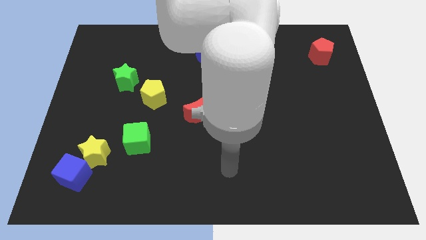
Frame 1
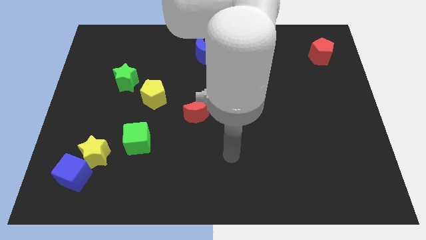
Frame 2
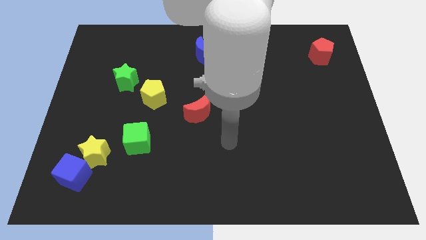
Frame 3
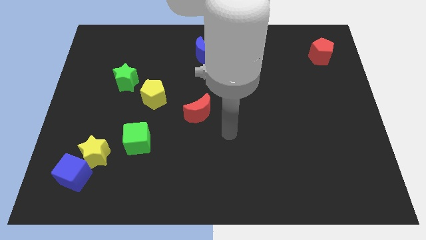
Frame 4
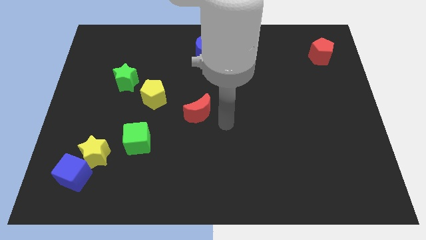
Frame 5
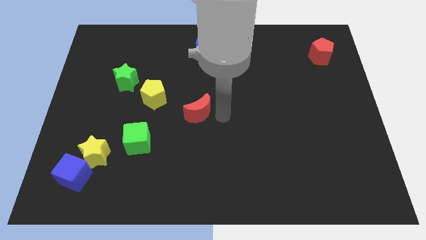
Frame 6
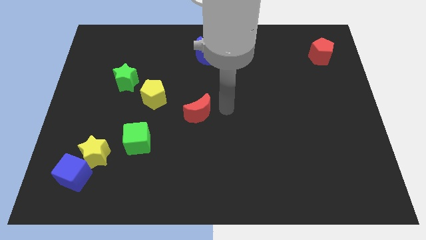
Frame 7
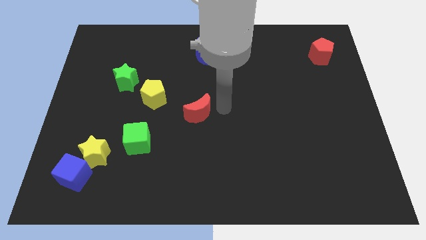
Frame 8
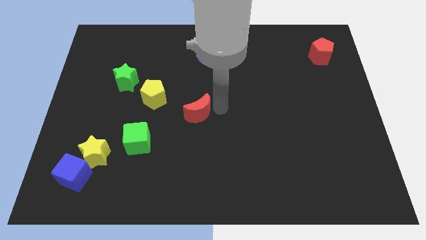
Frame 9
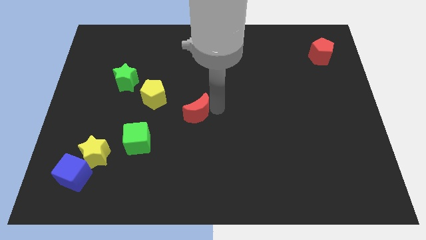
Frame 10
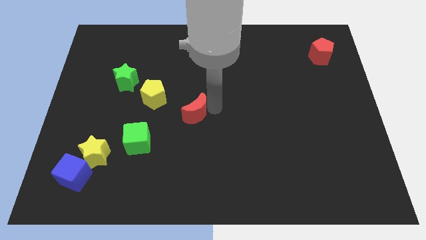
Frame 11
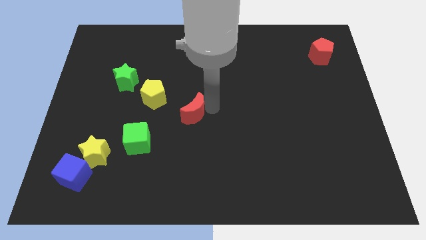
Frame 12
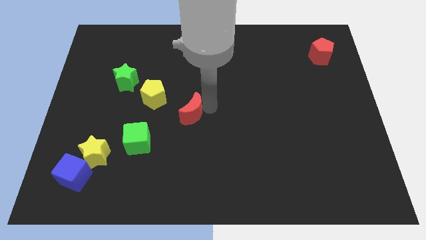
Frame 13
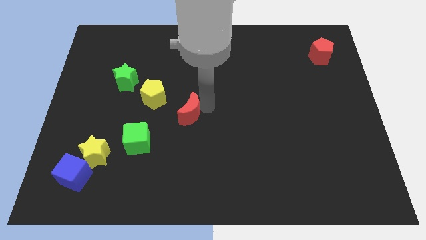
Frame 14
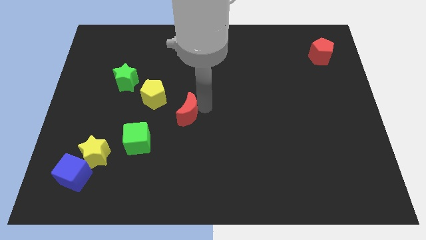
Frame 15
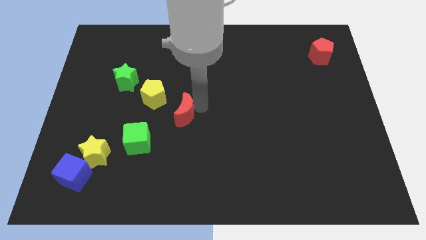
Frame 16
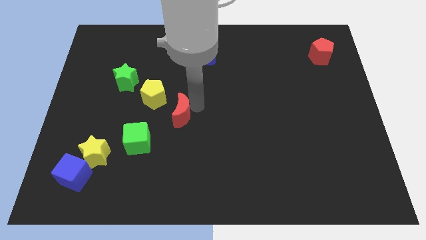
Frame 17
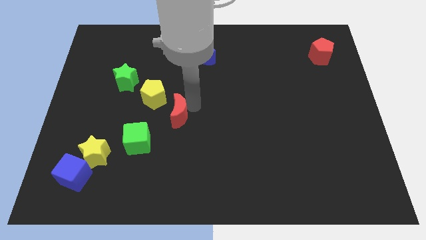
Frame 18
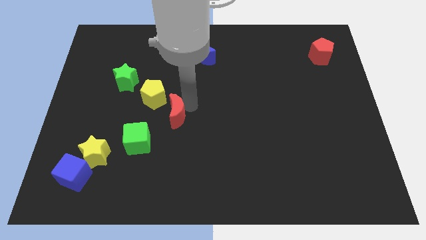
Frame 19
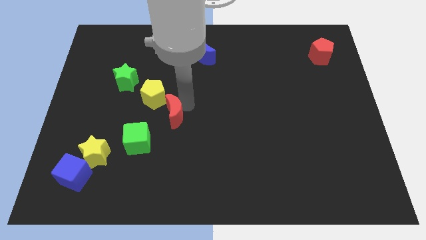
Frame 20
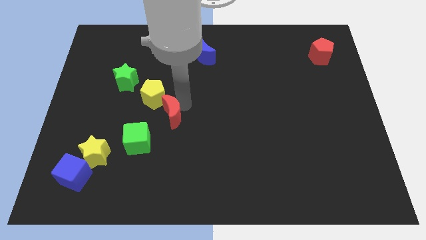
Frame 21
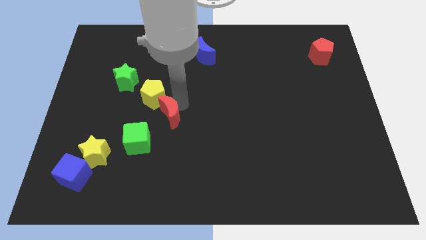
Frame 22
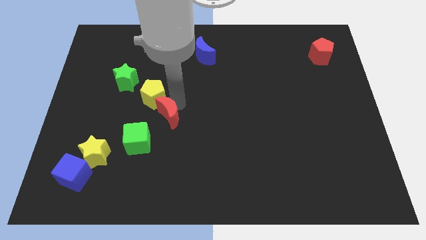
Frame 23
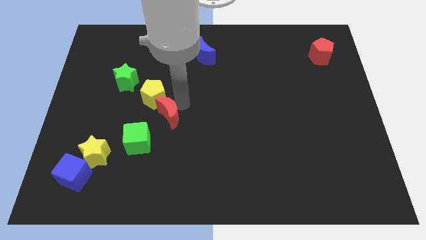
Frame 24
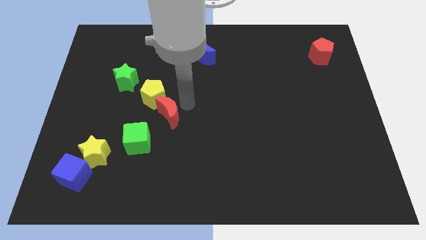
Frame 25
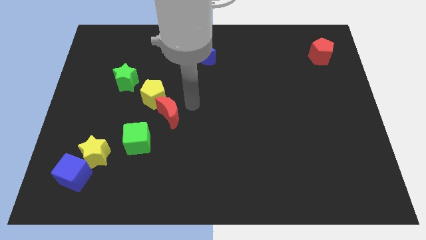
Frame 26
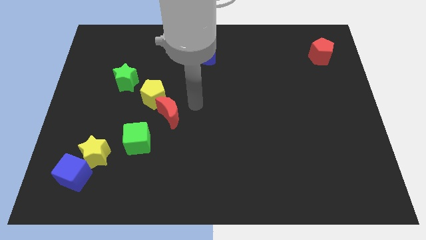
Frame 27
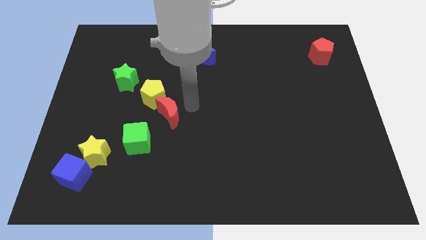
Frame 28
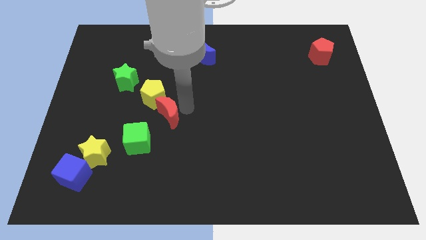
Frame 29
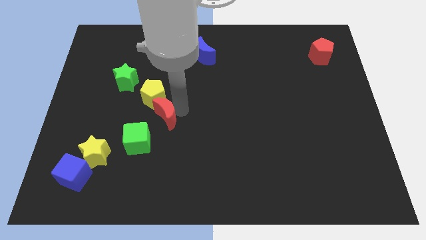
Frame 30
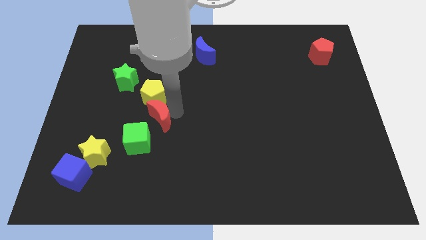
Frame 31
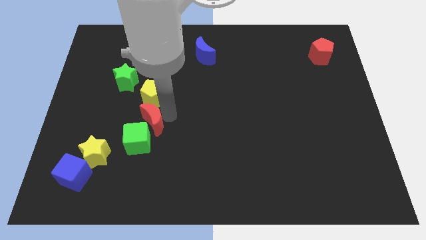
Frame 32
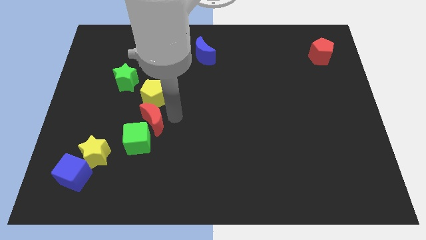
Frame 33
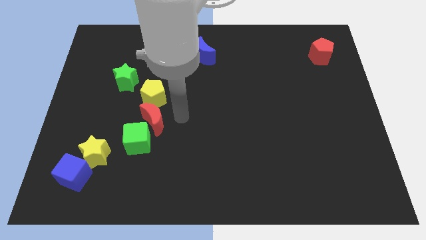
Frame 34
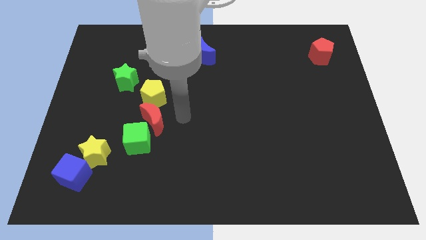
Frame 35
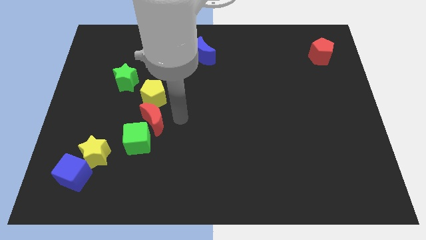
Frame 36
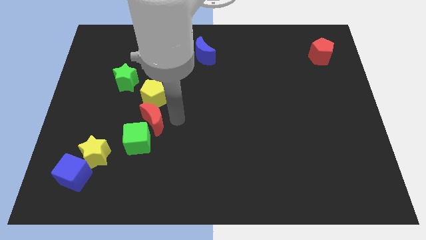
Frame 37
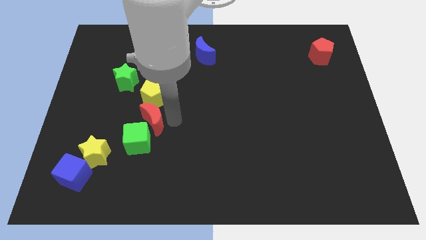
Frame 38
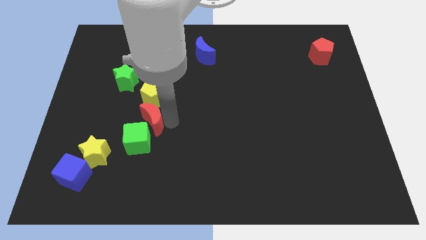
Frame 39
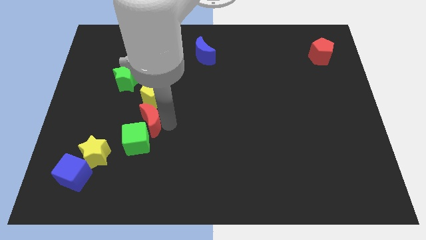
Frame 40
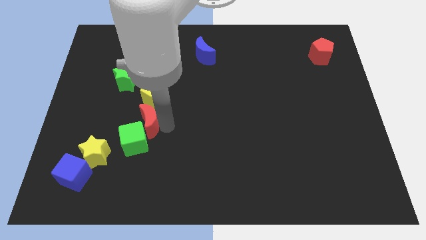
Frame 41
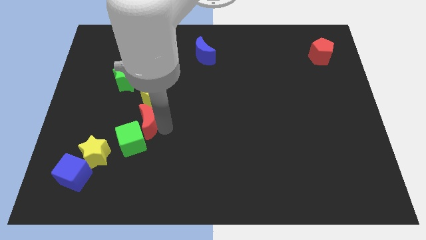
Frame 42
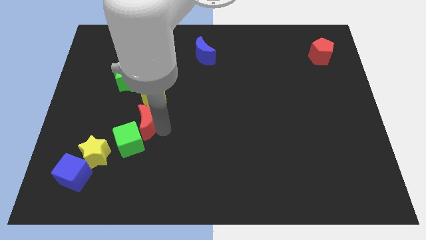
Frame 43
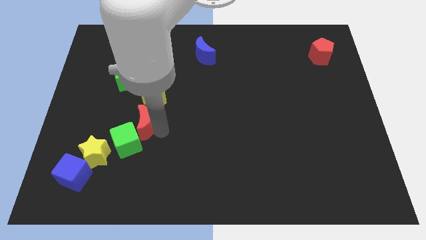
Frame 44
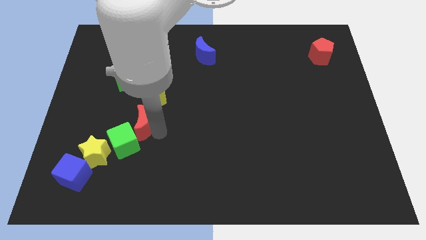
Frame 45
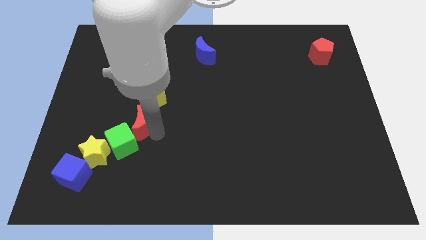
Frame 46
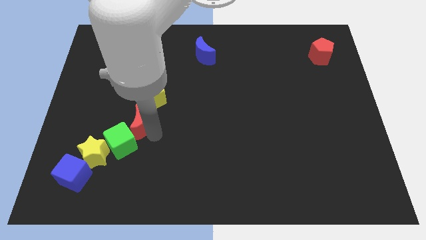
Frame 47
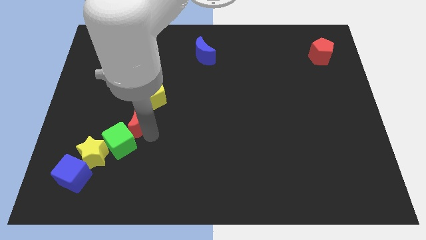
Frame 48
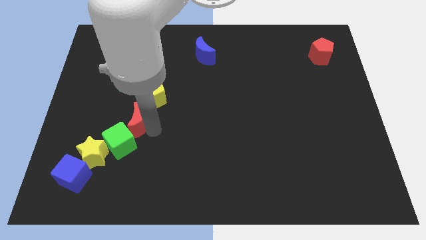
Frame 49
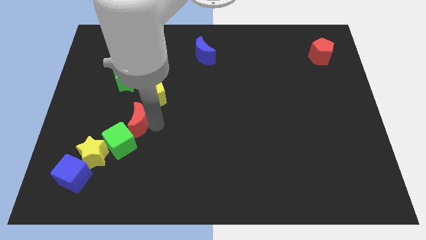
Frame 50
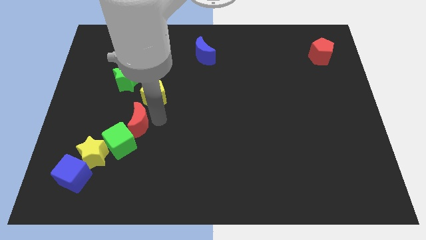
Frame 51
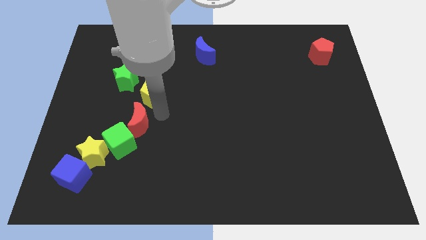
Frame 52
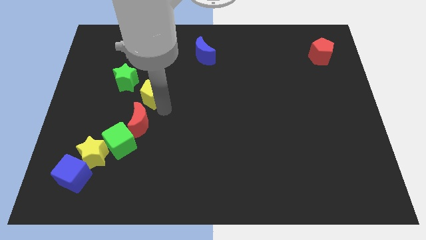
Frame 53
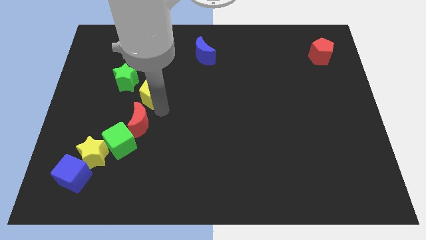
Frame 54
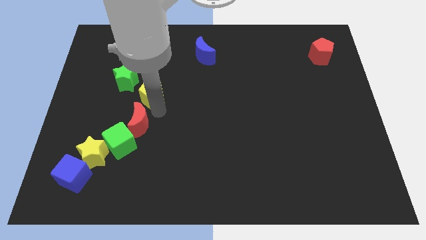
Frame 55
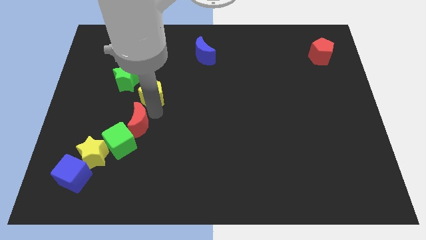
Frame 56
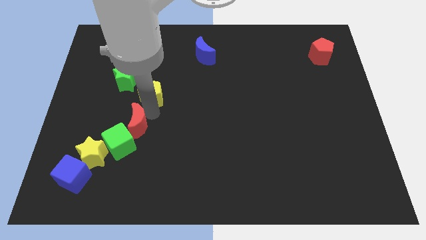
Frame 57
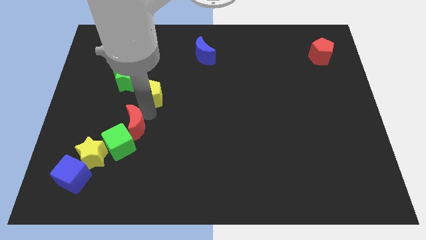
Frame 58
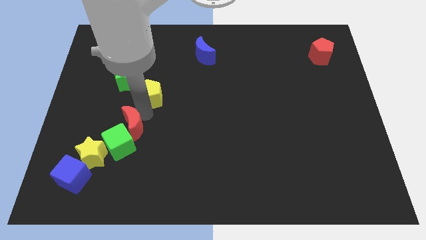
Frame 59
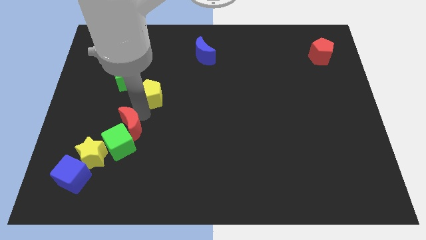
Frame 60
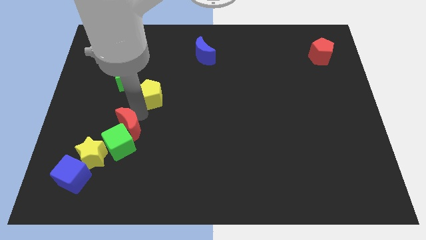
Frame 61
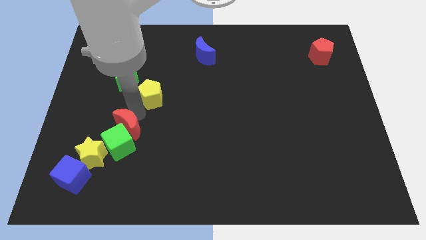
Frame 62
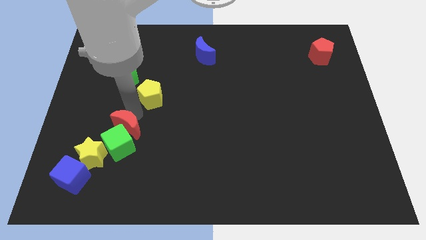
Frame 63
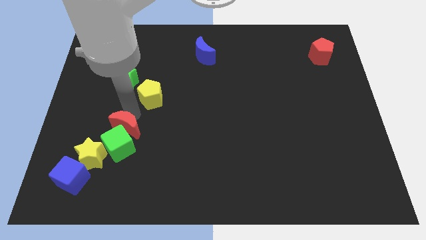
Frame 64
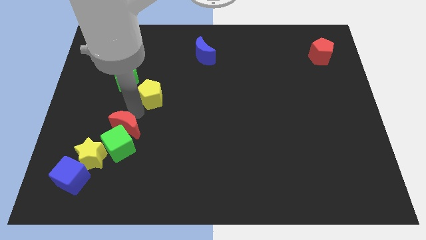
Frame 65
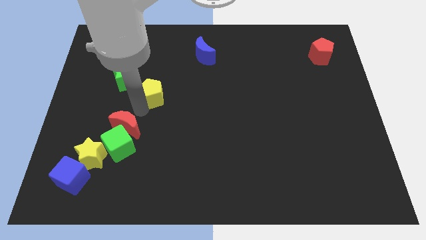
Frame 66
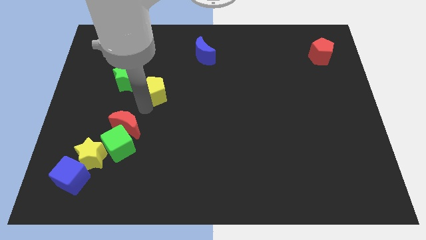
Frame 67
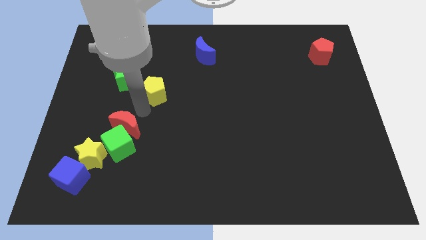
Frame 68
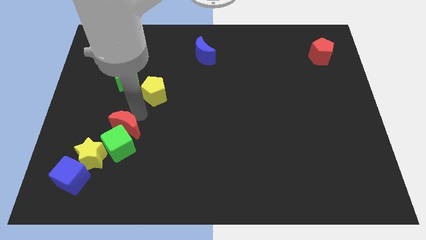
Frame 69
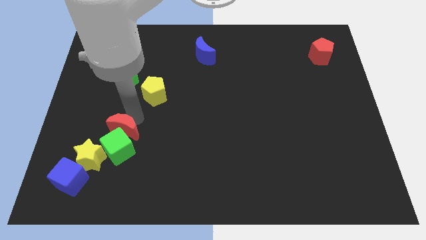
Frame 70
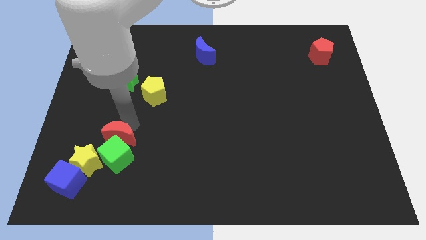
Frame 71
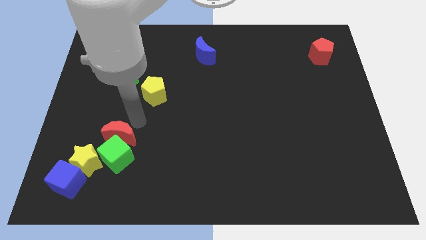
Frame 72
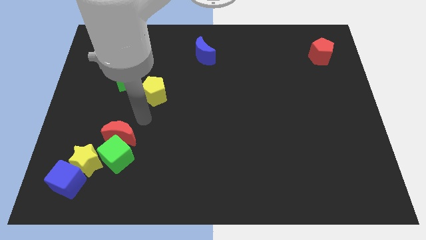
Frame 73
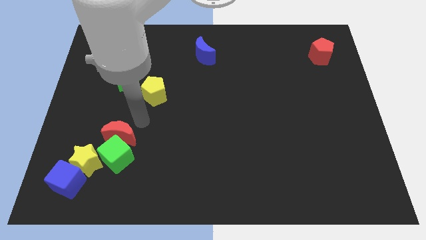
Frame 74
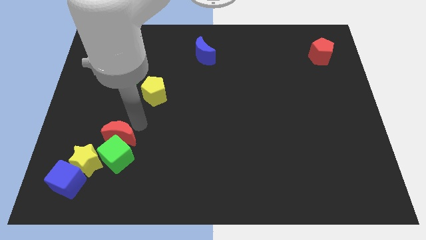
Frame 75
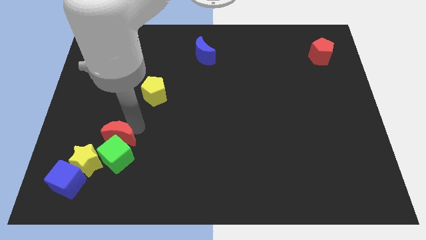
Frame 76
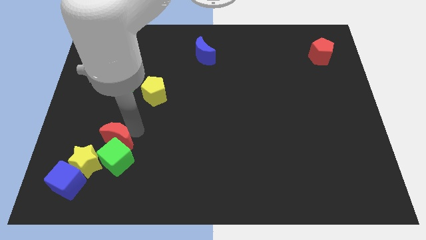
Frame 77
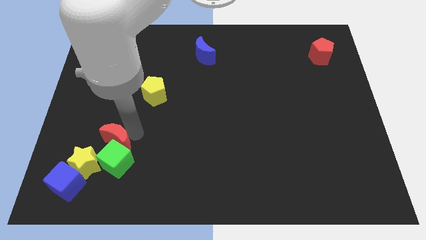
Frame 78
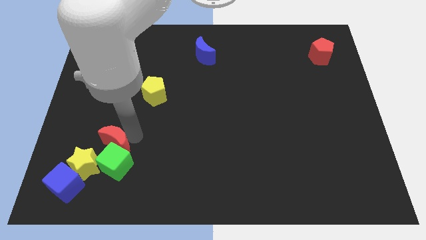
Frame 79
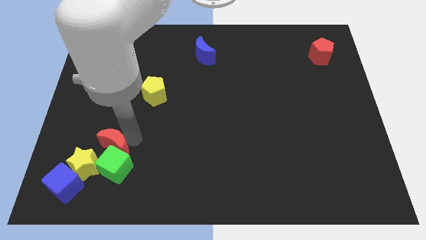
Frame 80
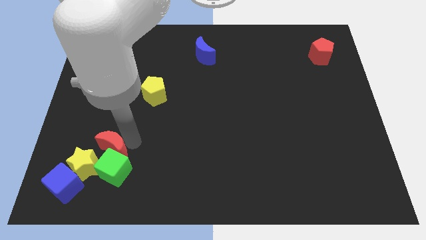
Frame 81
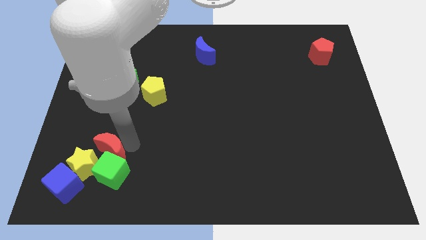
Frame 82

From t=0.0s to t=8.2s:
move the red moon to the yellow star
